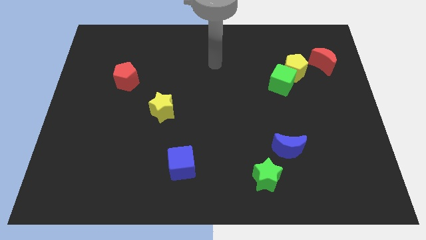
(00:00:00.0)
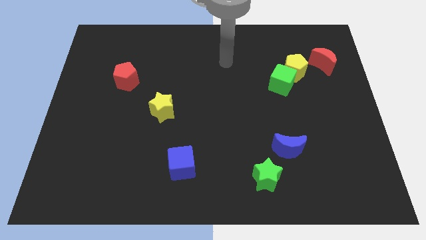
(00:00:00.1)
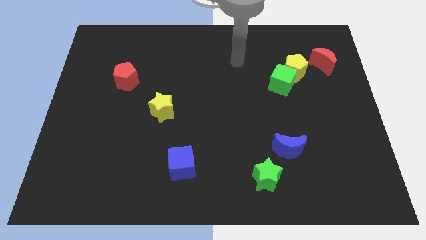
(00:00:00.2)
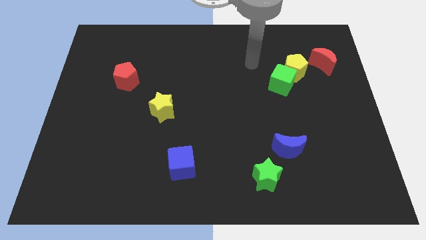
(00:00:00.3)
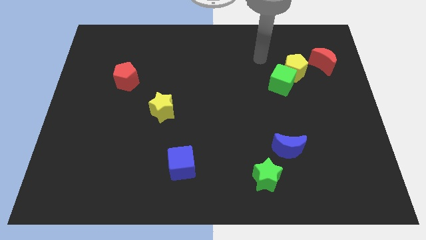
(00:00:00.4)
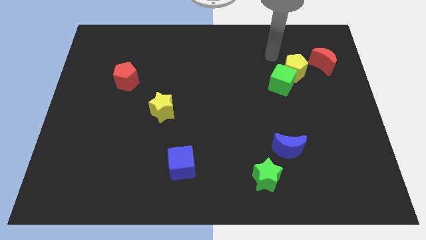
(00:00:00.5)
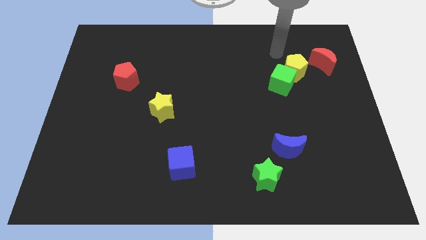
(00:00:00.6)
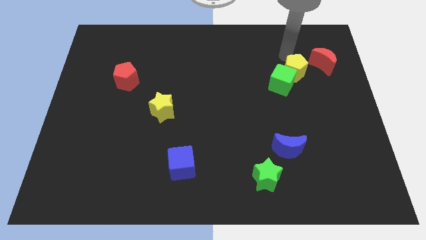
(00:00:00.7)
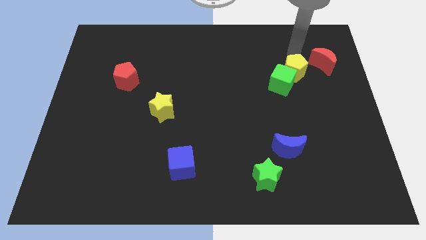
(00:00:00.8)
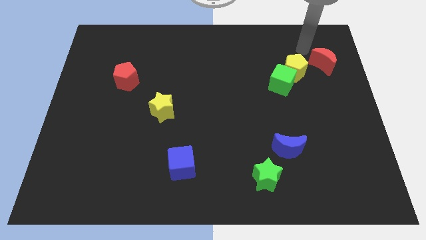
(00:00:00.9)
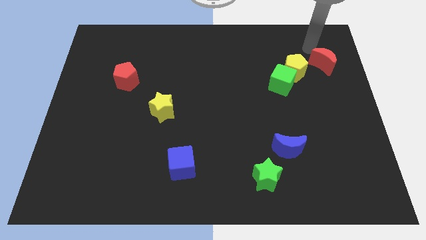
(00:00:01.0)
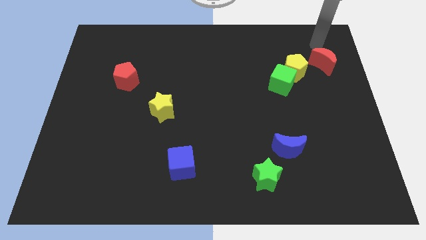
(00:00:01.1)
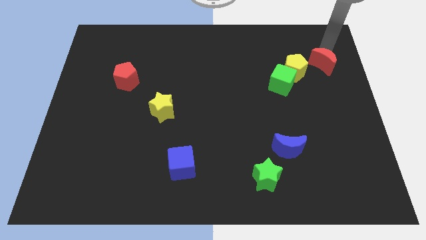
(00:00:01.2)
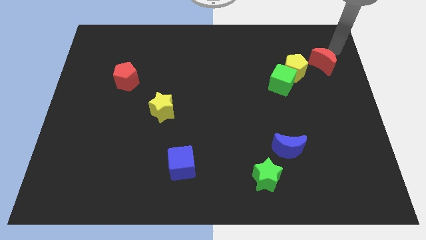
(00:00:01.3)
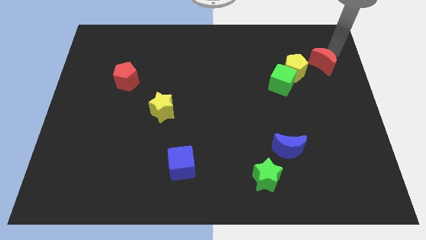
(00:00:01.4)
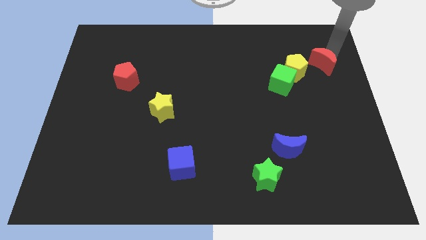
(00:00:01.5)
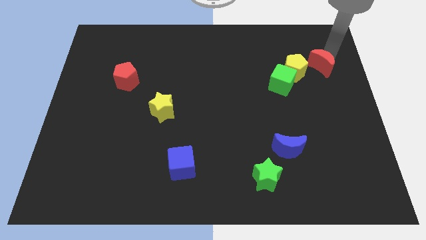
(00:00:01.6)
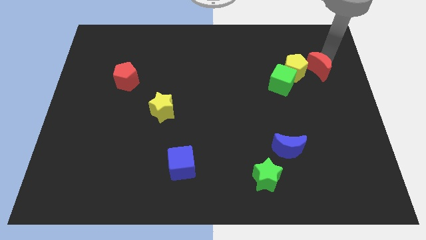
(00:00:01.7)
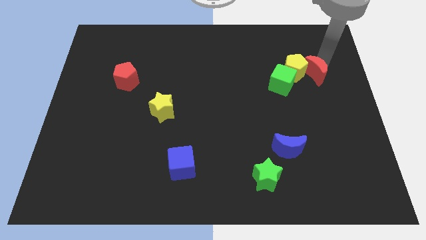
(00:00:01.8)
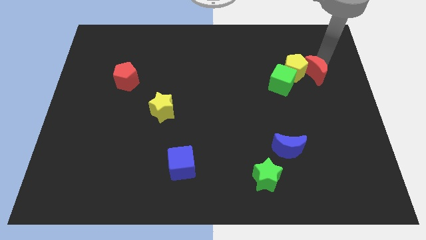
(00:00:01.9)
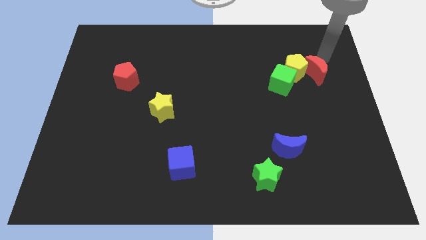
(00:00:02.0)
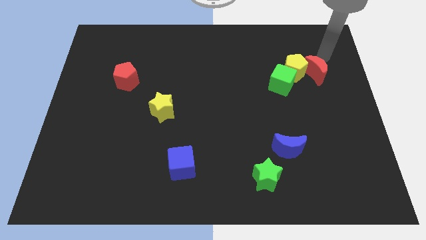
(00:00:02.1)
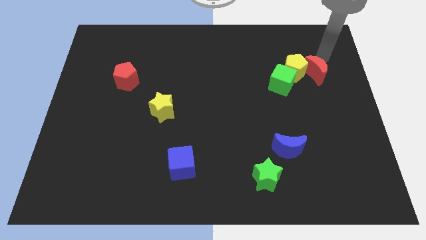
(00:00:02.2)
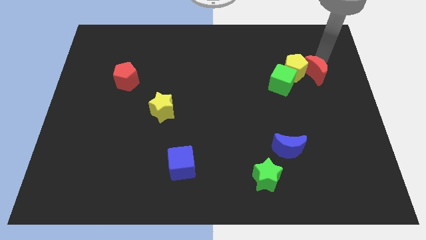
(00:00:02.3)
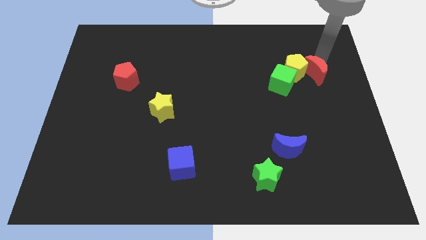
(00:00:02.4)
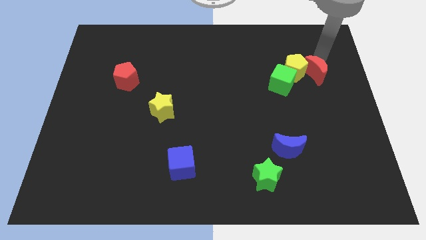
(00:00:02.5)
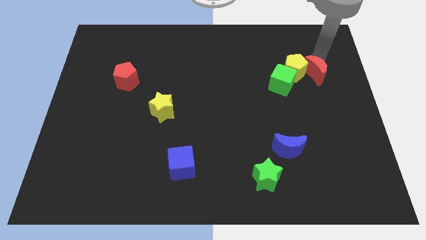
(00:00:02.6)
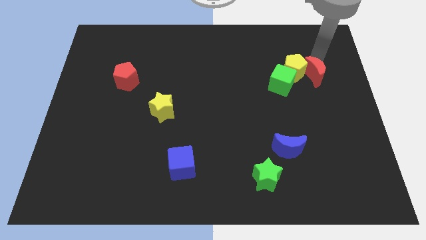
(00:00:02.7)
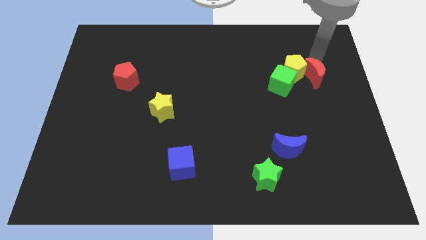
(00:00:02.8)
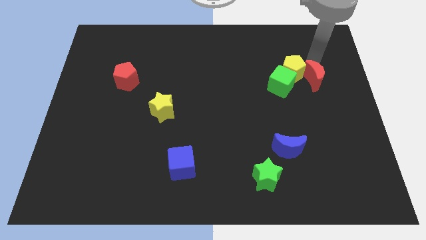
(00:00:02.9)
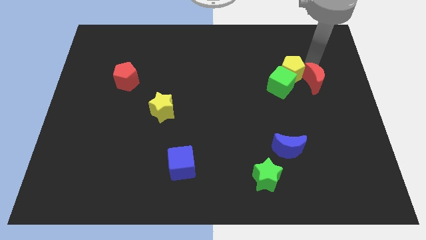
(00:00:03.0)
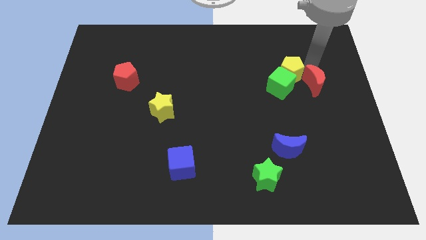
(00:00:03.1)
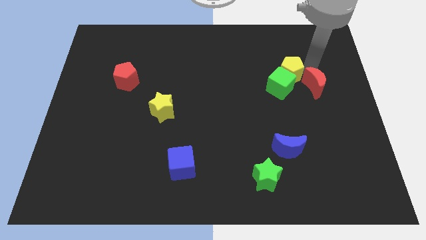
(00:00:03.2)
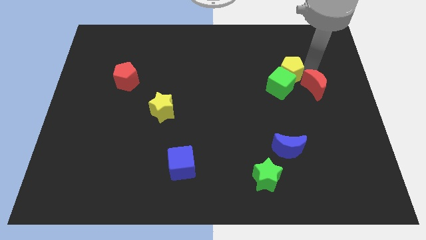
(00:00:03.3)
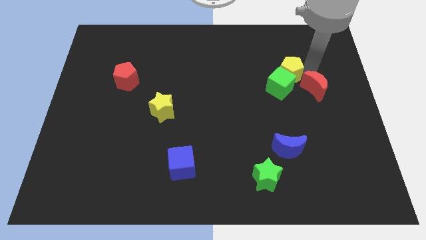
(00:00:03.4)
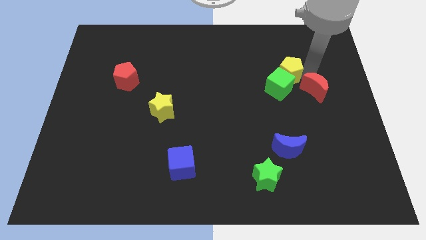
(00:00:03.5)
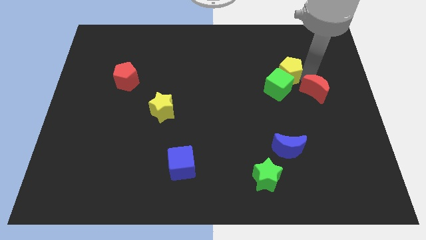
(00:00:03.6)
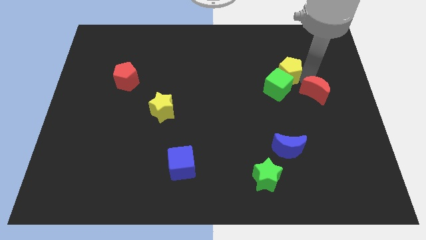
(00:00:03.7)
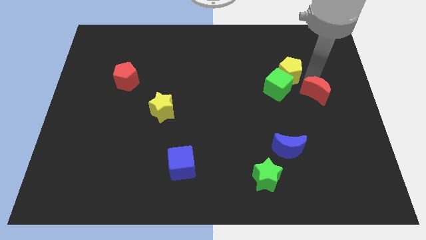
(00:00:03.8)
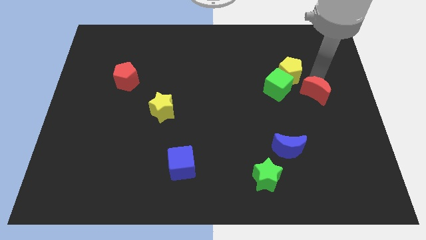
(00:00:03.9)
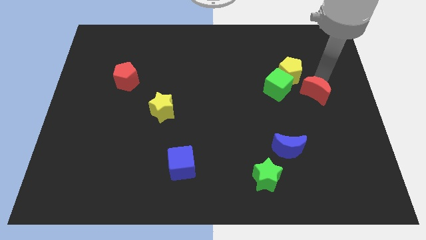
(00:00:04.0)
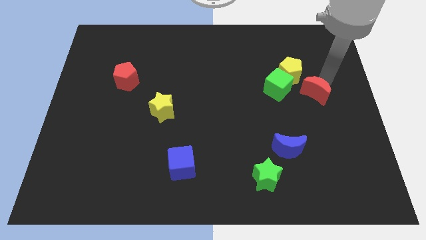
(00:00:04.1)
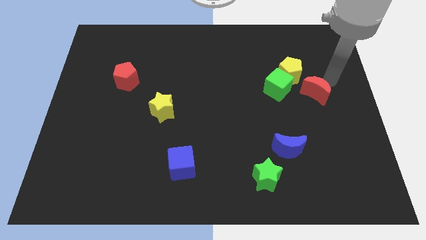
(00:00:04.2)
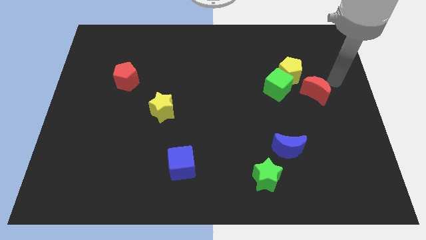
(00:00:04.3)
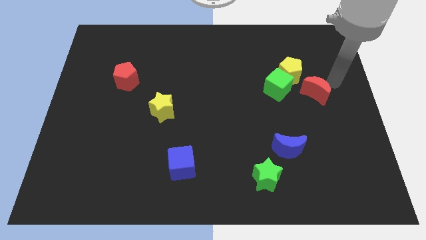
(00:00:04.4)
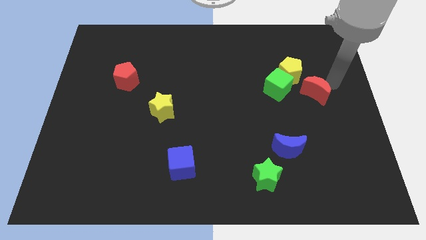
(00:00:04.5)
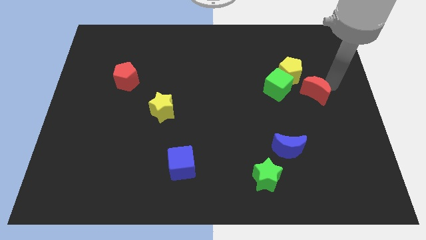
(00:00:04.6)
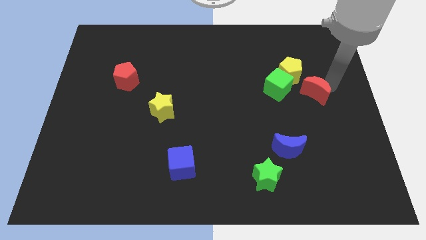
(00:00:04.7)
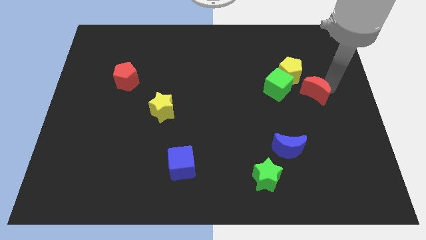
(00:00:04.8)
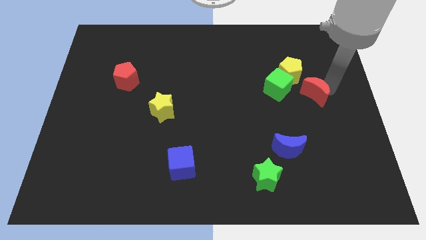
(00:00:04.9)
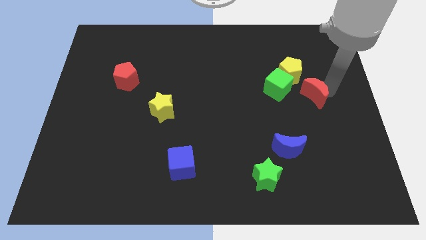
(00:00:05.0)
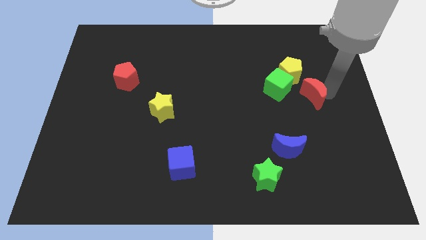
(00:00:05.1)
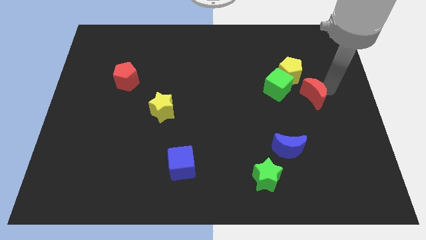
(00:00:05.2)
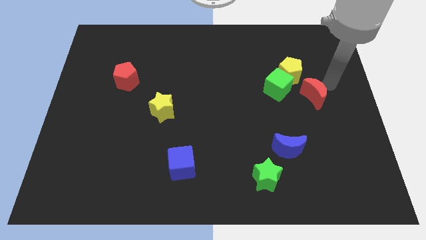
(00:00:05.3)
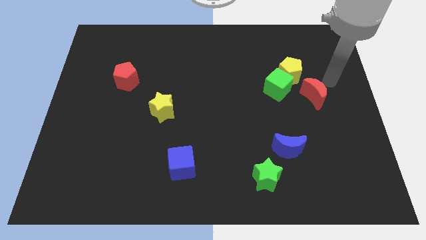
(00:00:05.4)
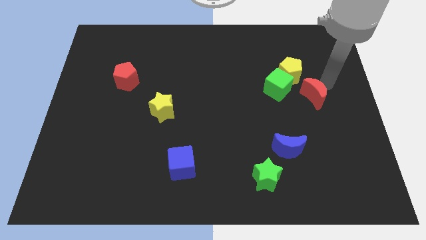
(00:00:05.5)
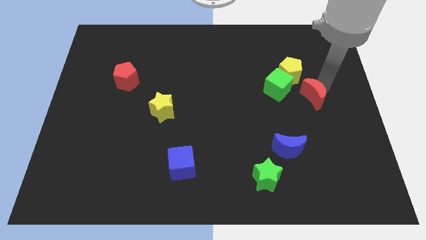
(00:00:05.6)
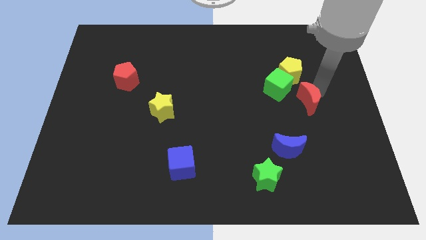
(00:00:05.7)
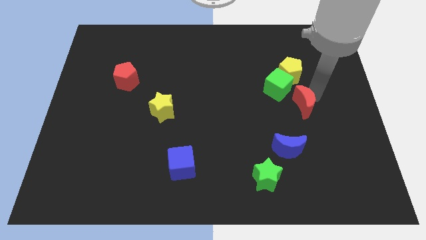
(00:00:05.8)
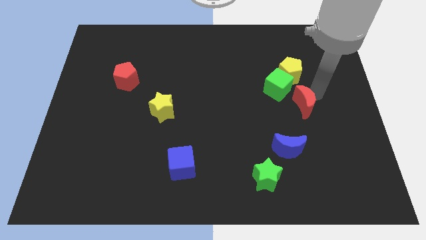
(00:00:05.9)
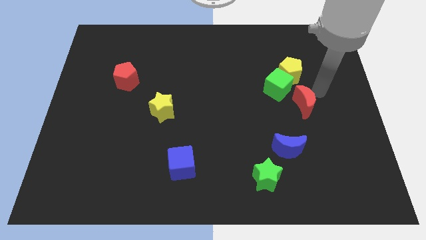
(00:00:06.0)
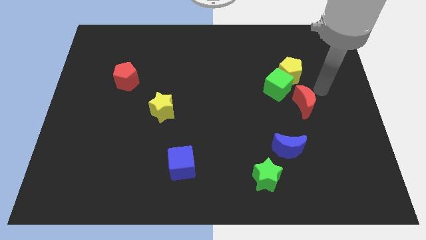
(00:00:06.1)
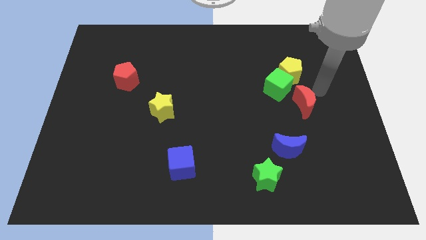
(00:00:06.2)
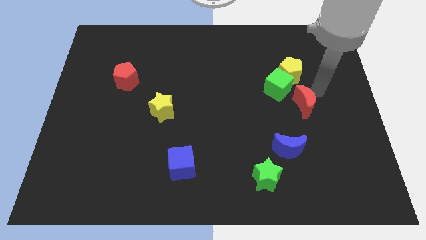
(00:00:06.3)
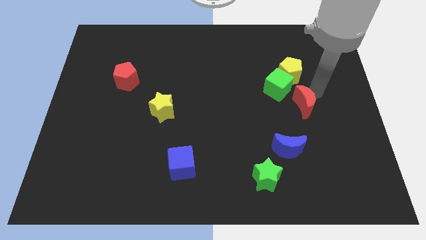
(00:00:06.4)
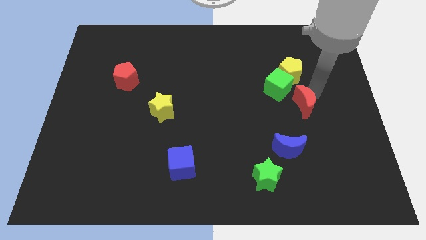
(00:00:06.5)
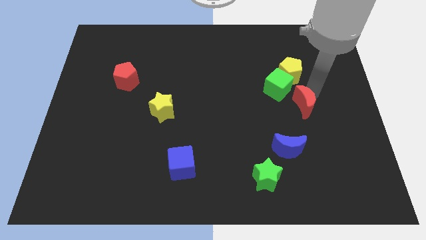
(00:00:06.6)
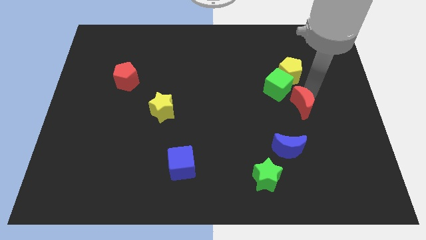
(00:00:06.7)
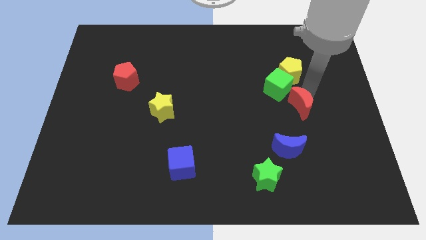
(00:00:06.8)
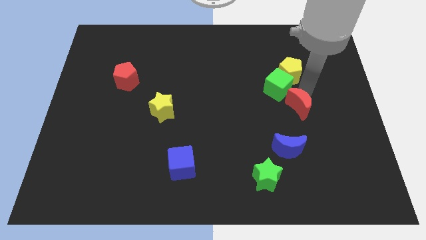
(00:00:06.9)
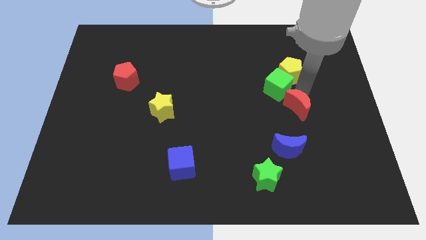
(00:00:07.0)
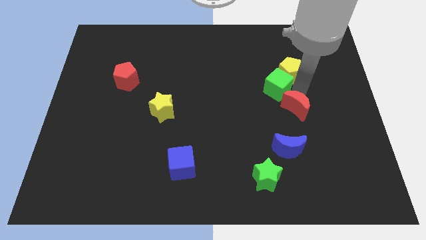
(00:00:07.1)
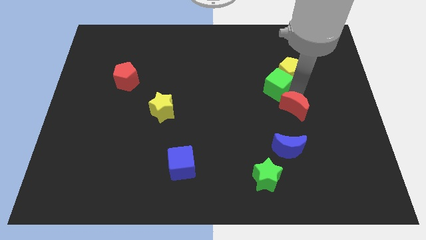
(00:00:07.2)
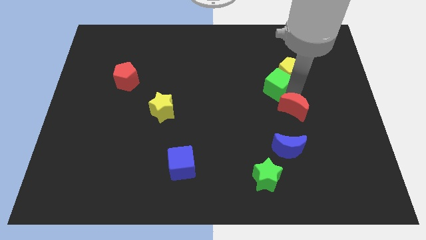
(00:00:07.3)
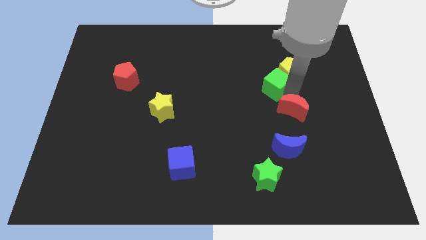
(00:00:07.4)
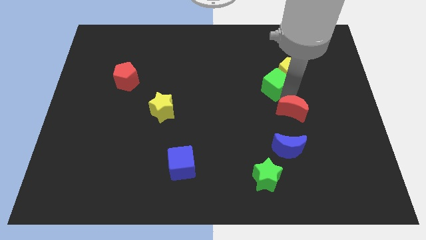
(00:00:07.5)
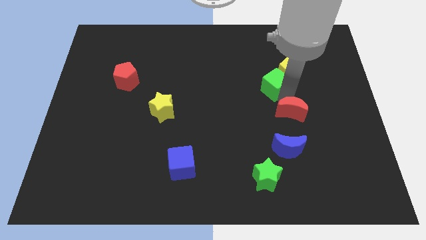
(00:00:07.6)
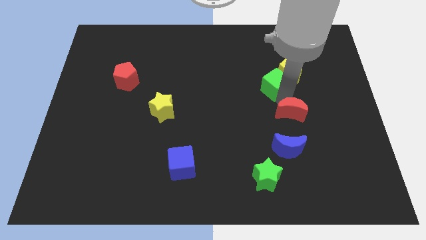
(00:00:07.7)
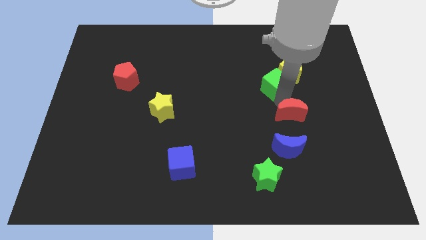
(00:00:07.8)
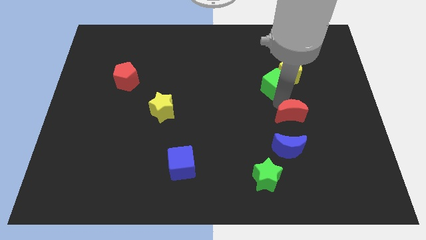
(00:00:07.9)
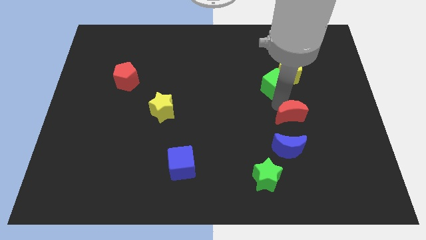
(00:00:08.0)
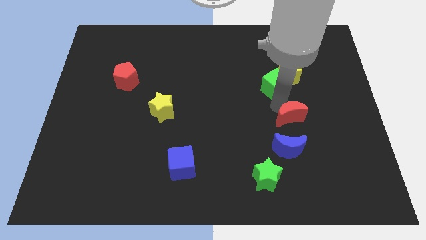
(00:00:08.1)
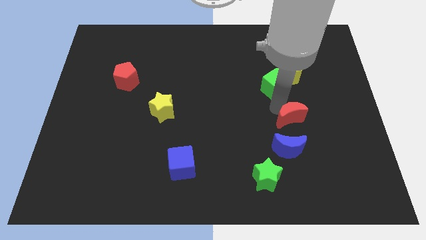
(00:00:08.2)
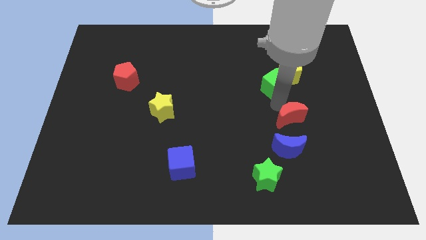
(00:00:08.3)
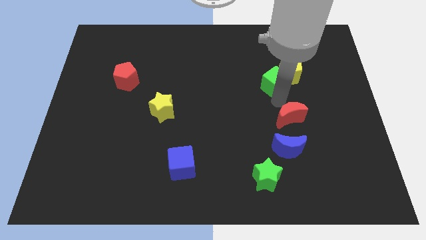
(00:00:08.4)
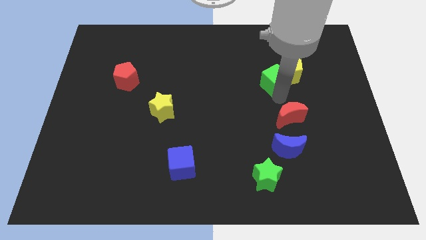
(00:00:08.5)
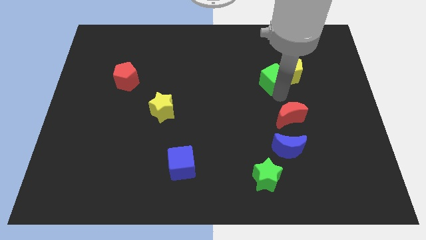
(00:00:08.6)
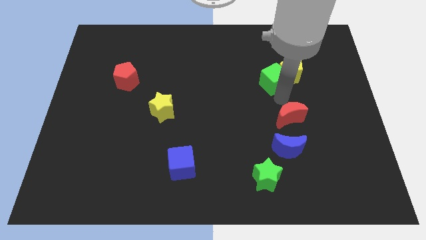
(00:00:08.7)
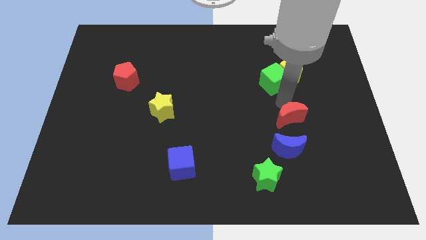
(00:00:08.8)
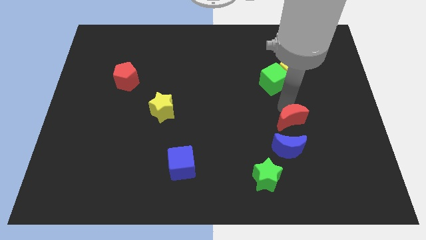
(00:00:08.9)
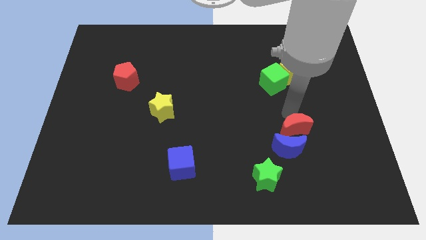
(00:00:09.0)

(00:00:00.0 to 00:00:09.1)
slide the red moon to the blue moon
